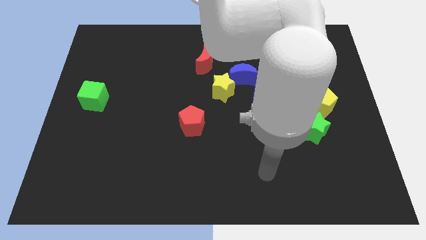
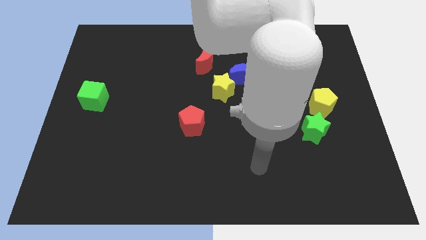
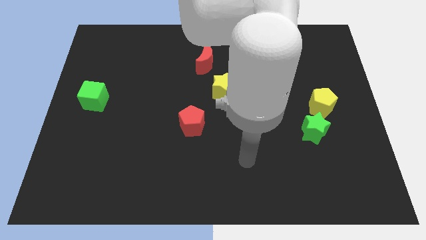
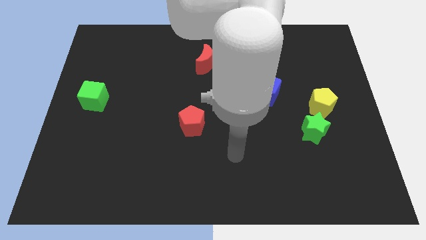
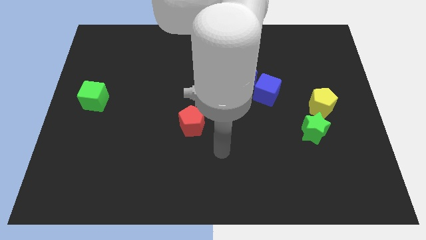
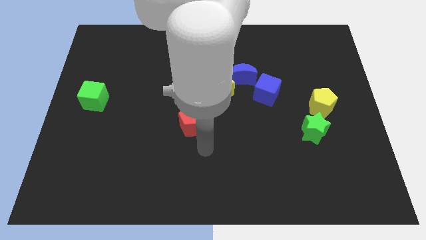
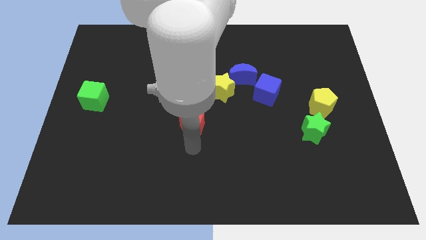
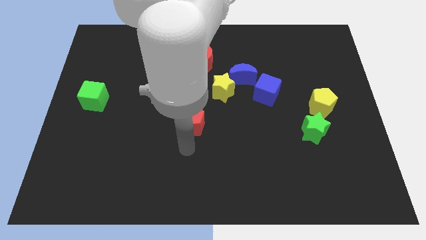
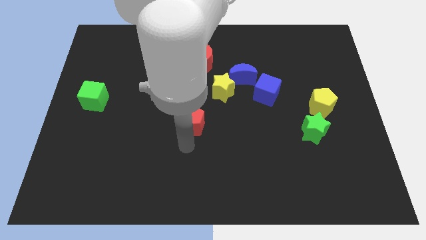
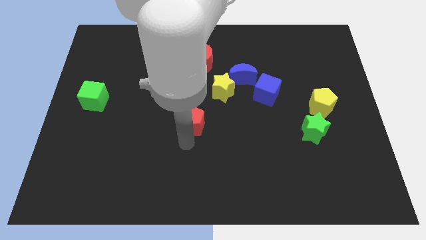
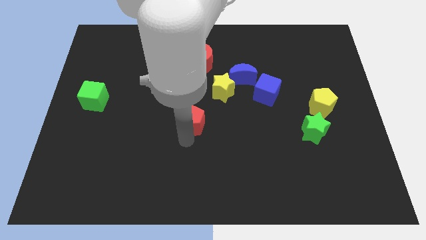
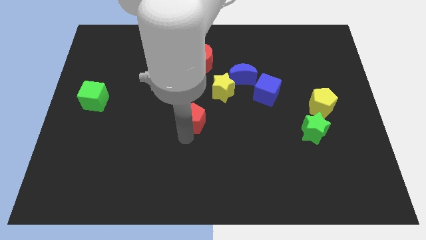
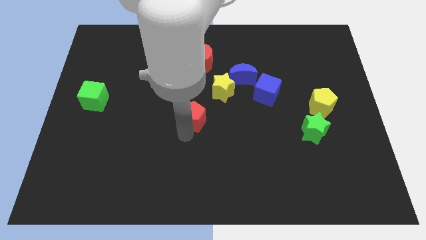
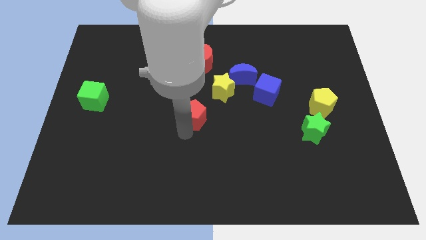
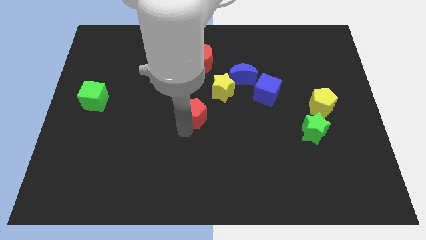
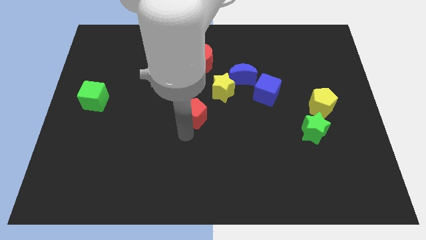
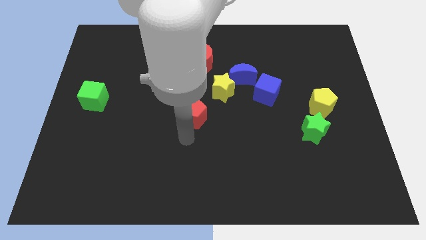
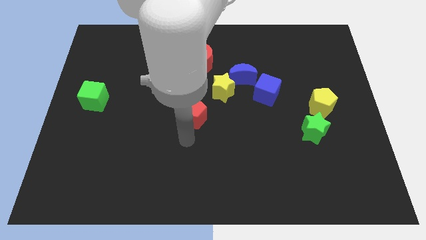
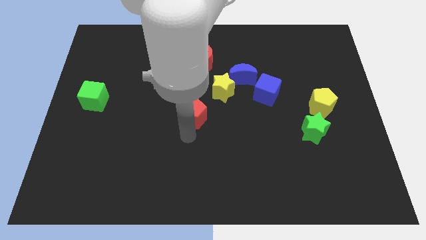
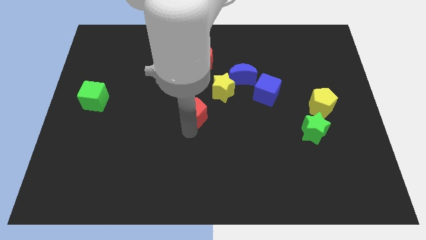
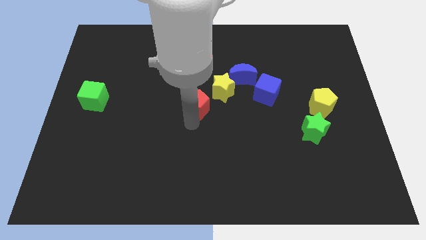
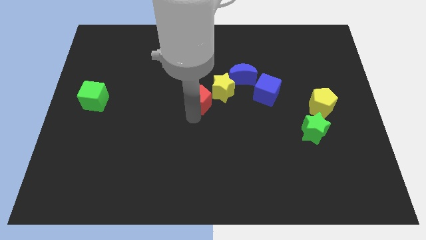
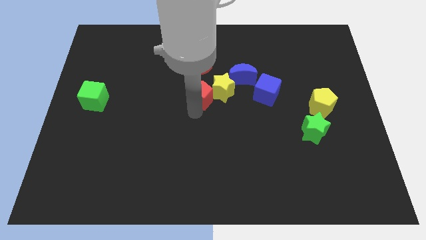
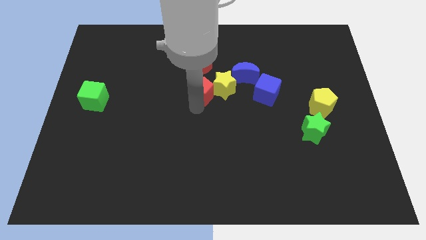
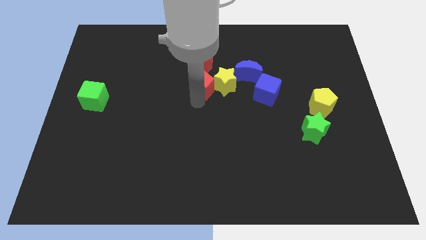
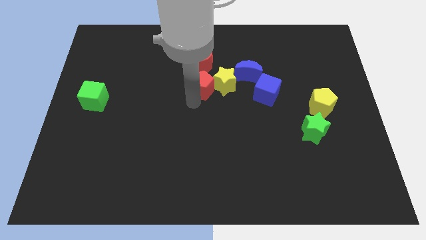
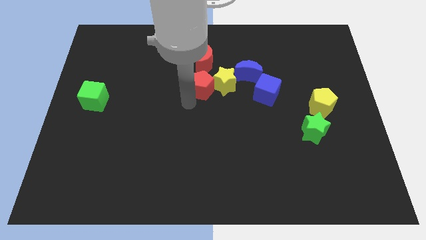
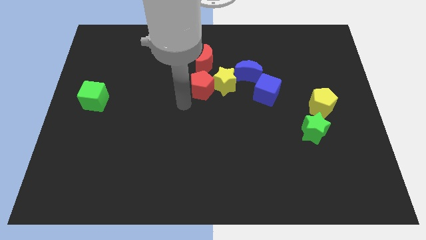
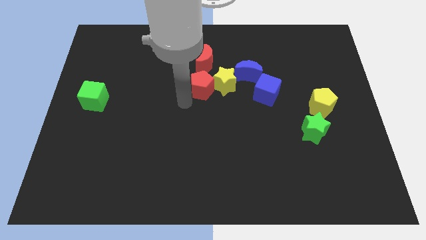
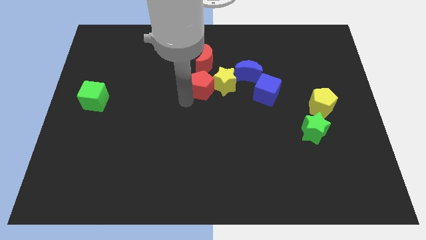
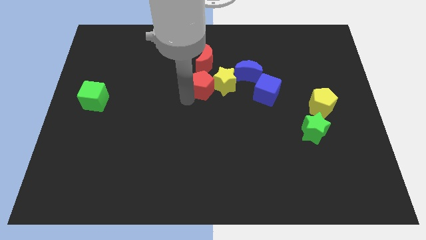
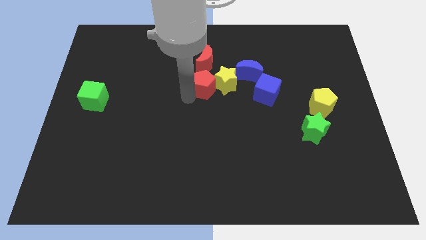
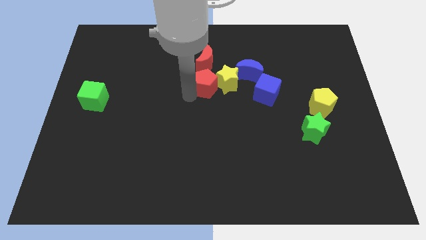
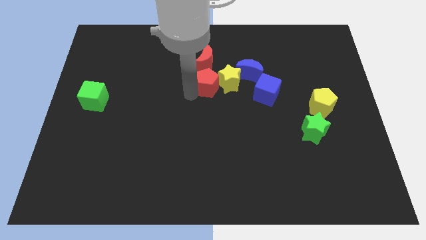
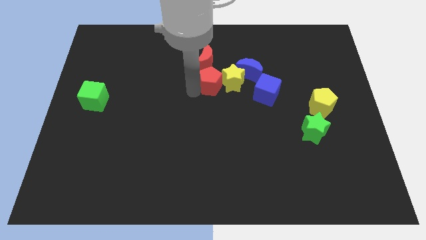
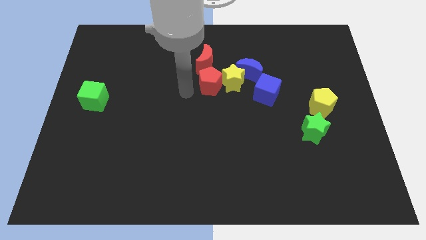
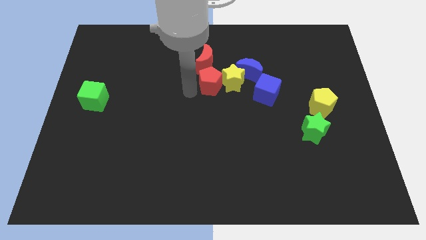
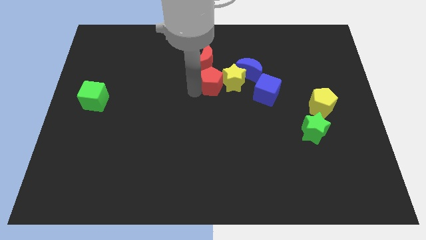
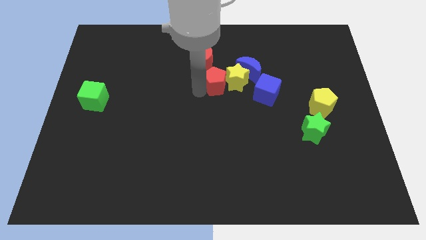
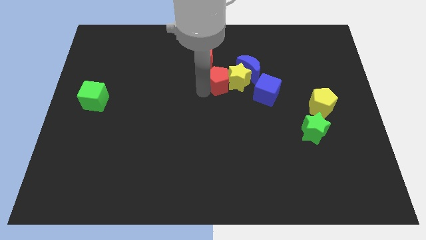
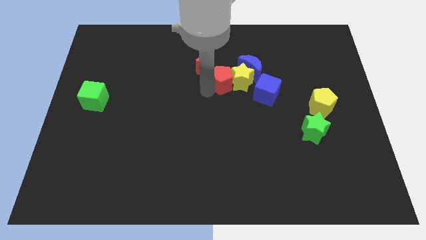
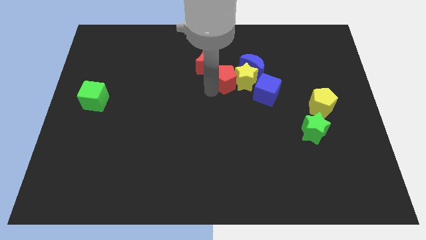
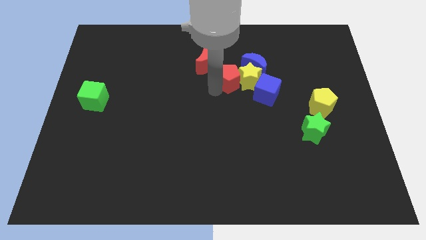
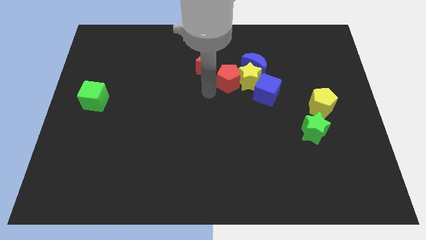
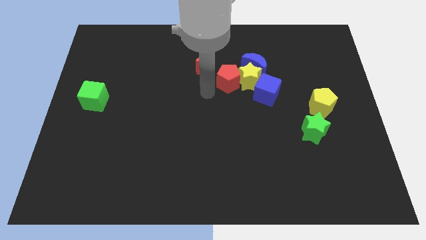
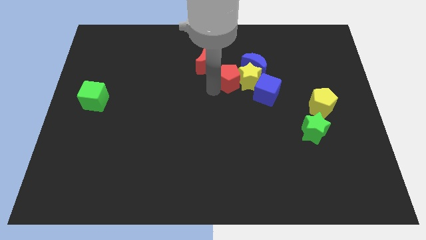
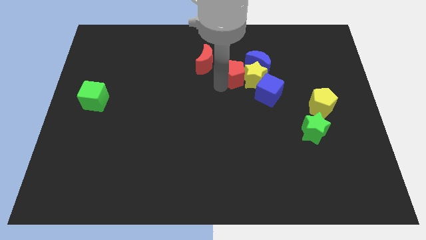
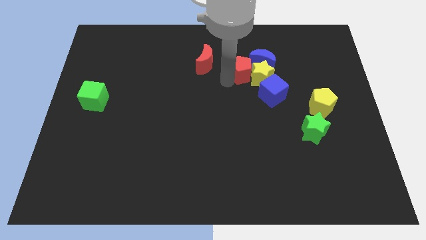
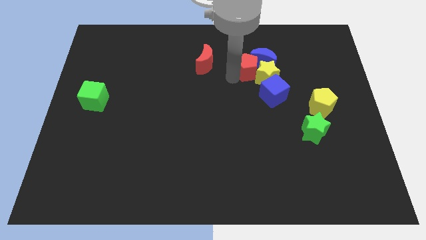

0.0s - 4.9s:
put the red pentagon close to the blue moon

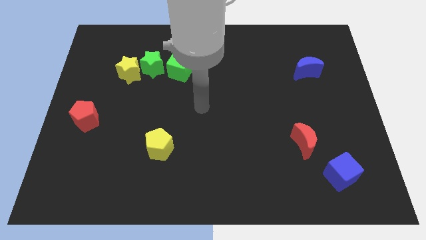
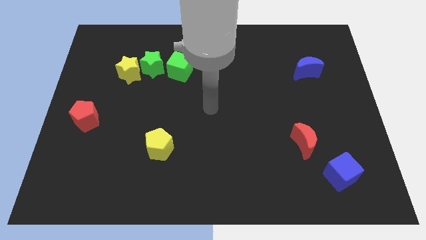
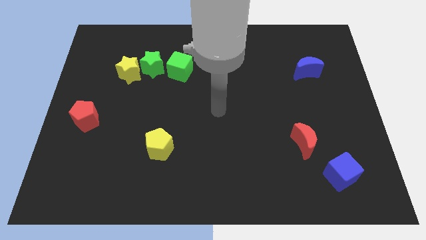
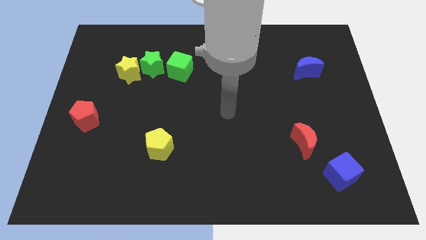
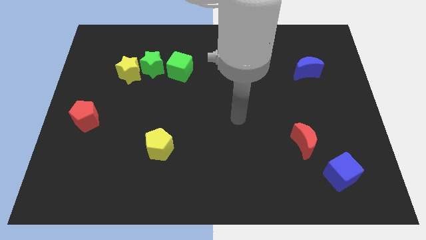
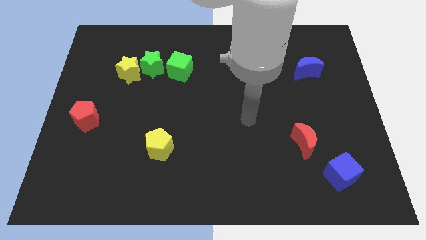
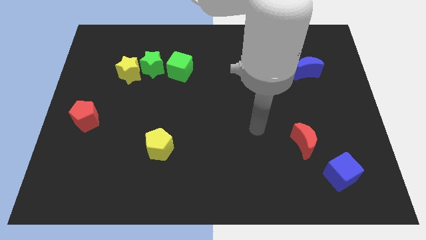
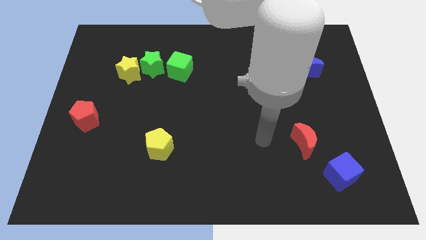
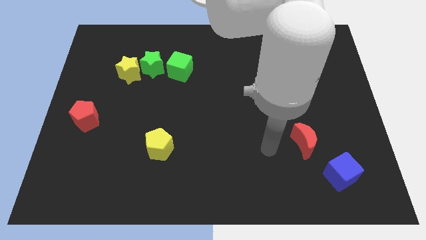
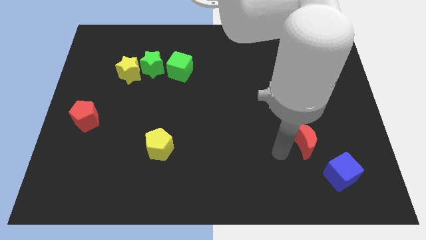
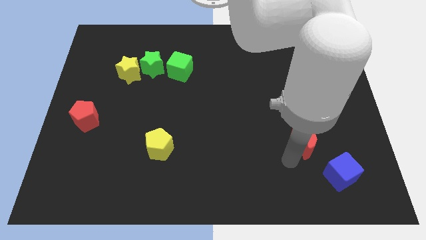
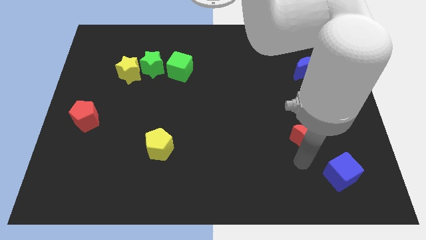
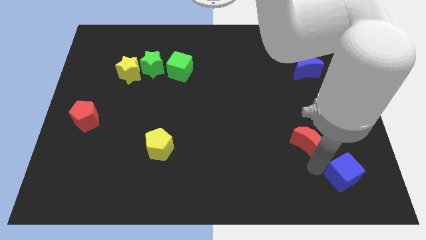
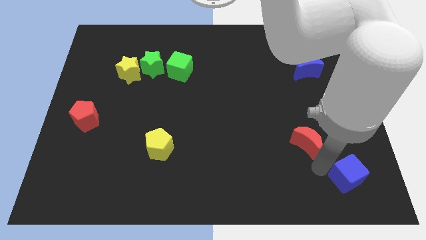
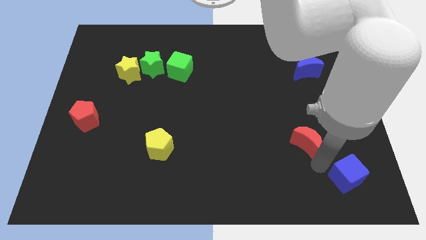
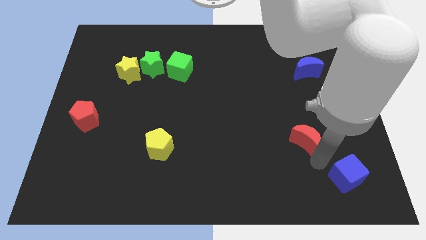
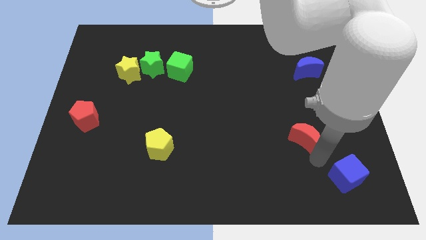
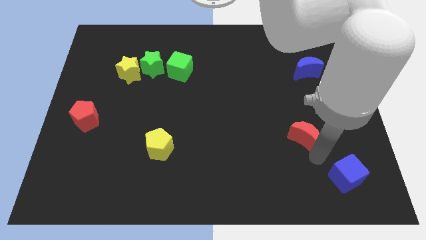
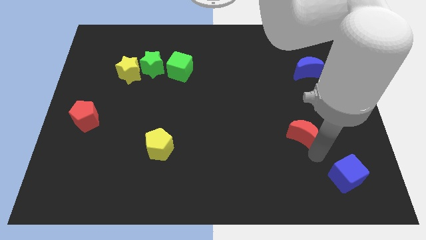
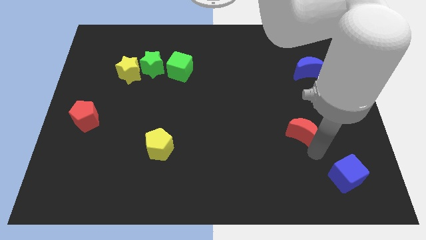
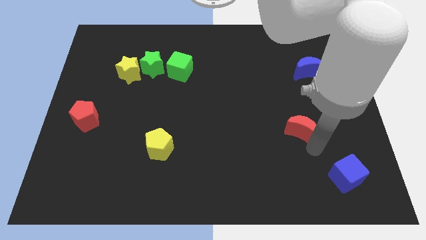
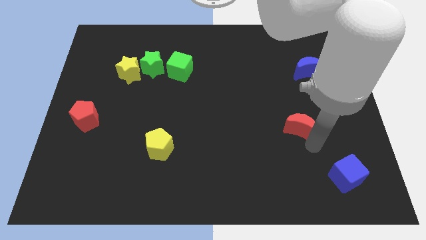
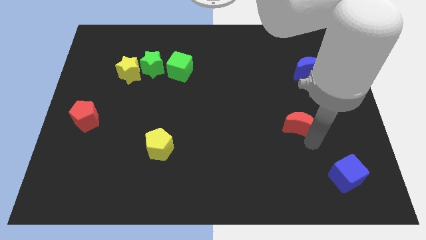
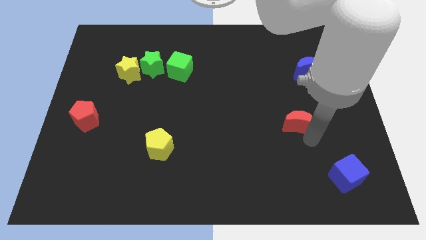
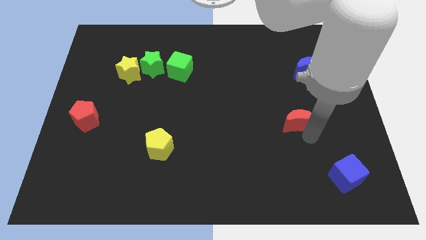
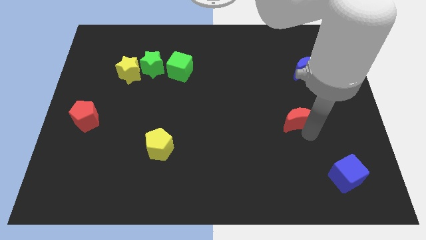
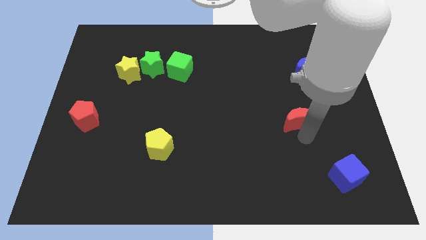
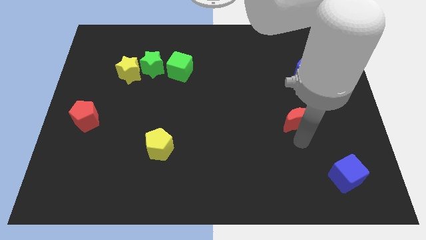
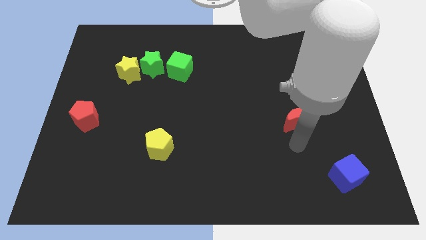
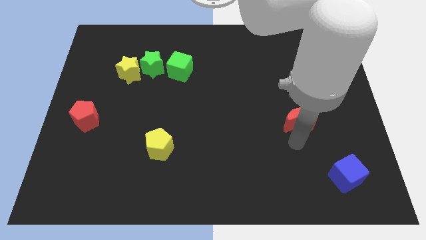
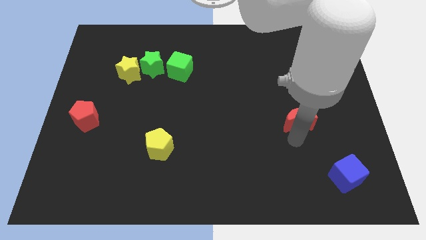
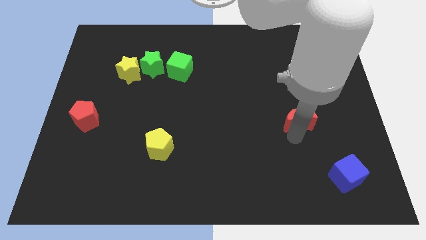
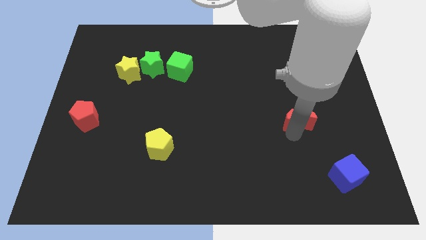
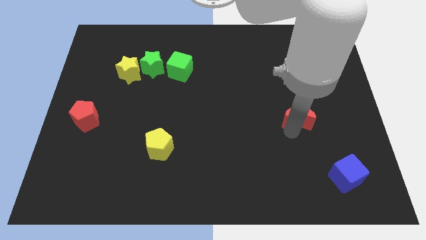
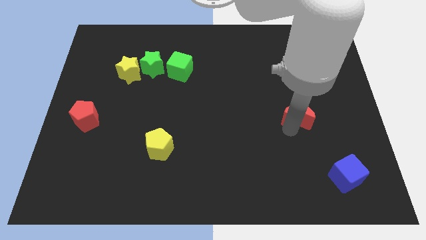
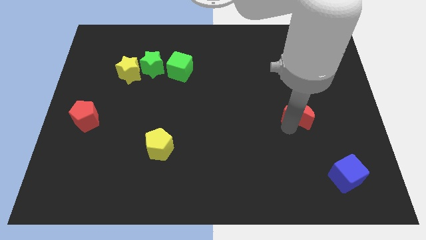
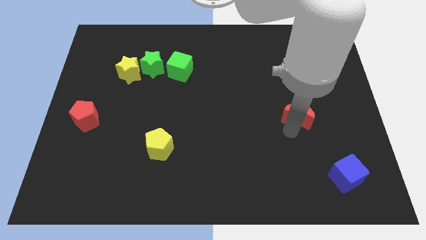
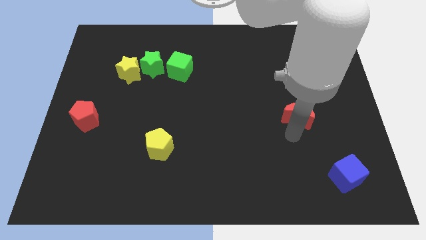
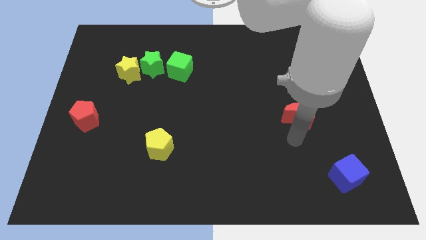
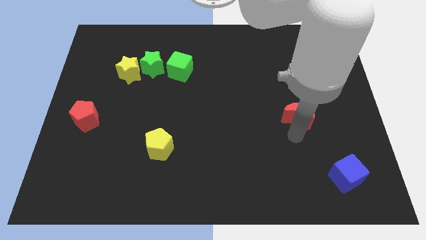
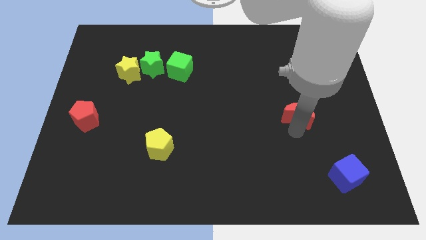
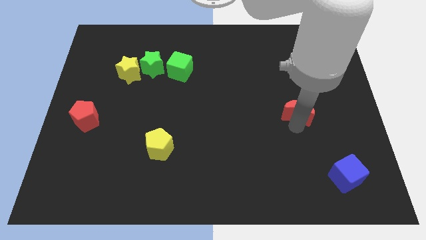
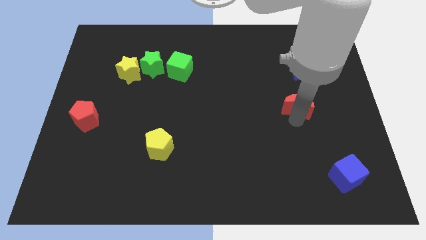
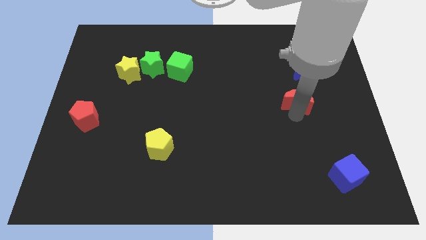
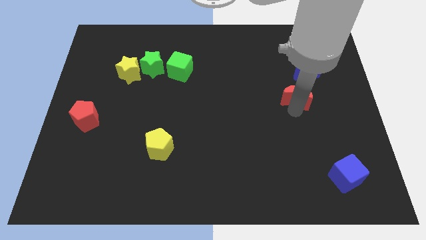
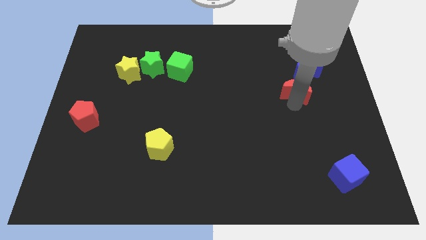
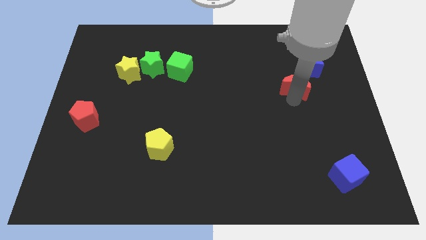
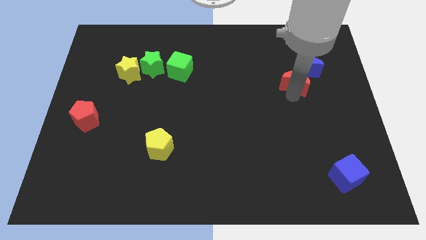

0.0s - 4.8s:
move the red moon towards the blue moon
